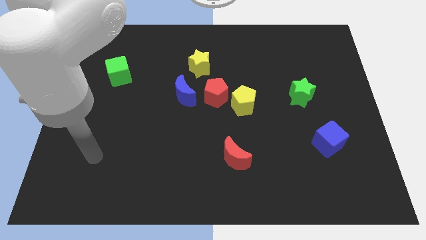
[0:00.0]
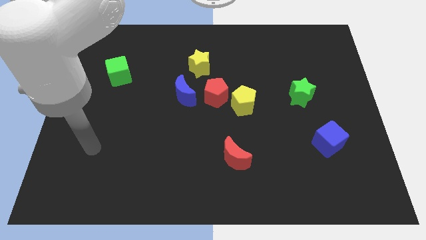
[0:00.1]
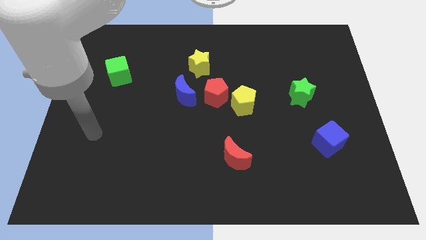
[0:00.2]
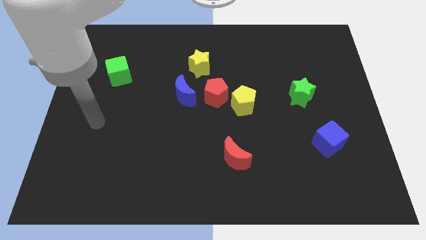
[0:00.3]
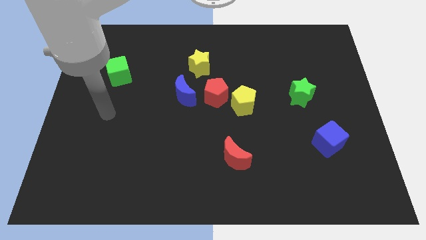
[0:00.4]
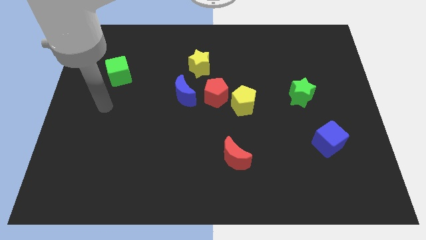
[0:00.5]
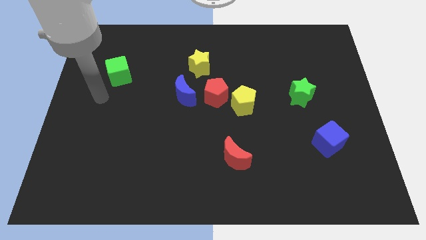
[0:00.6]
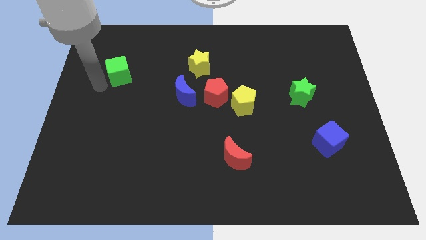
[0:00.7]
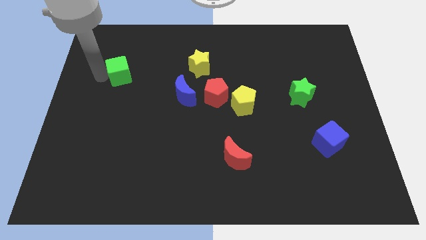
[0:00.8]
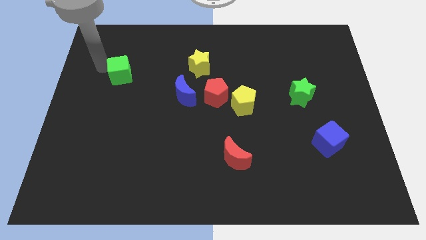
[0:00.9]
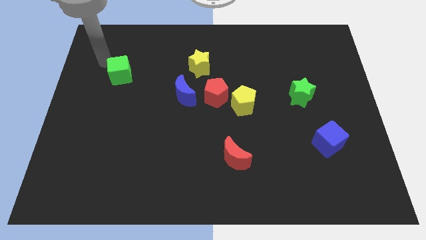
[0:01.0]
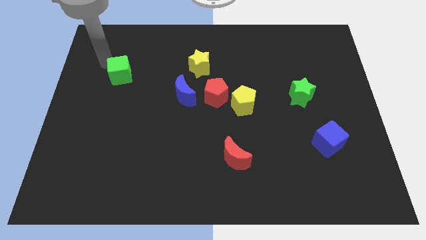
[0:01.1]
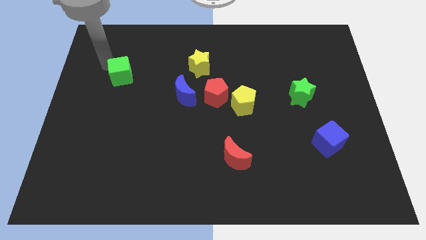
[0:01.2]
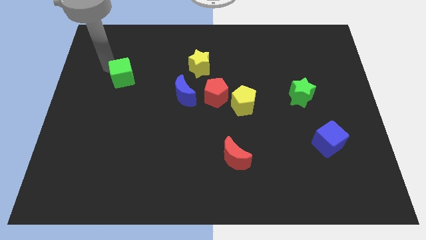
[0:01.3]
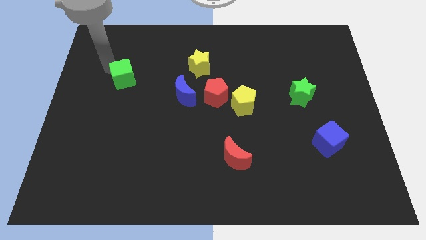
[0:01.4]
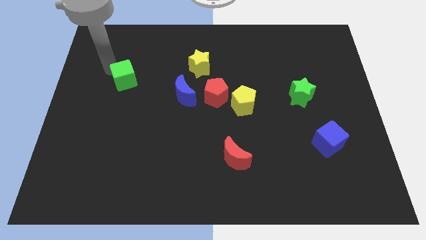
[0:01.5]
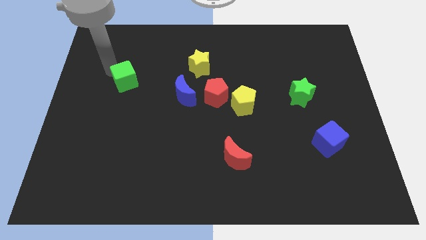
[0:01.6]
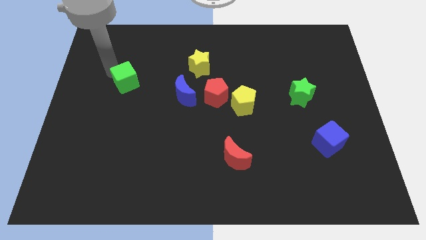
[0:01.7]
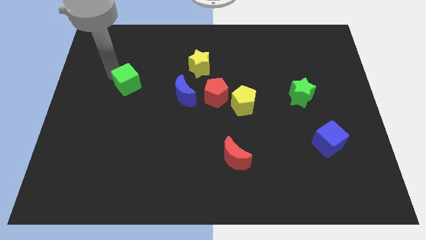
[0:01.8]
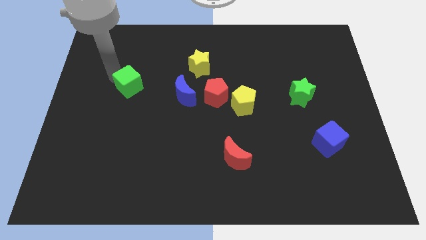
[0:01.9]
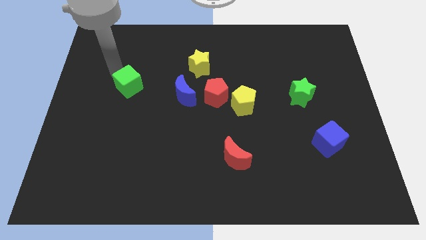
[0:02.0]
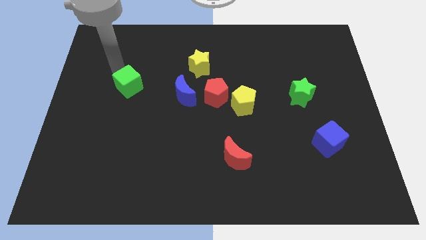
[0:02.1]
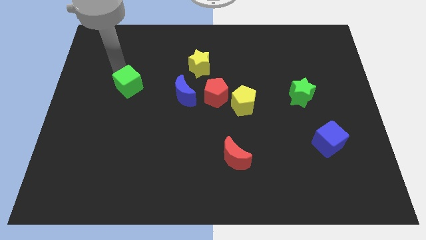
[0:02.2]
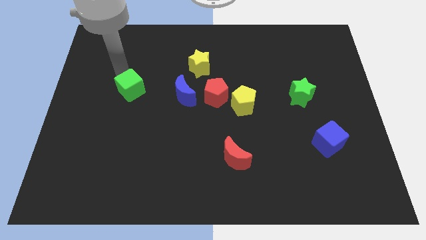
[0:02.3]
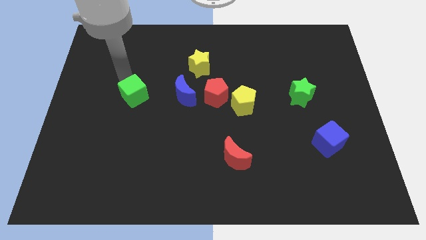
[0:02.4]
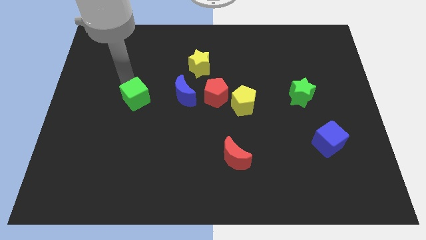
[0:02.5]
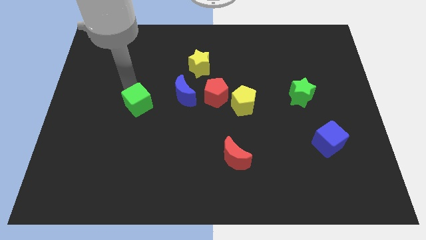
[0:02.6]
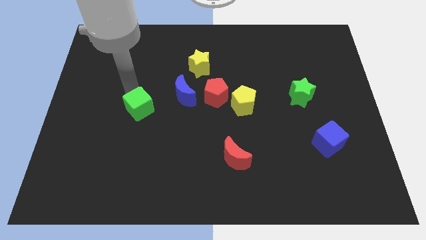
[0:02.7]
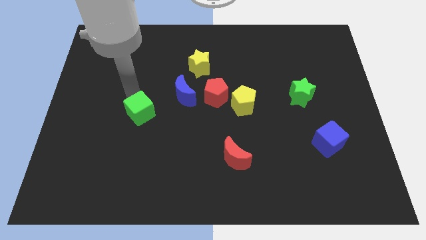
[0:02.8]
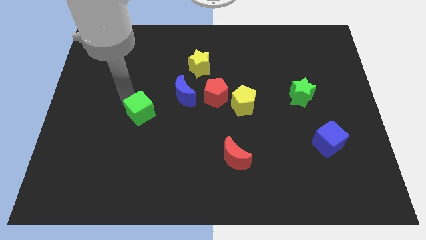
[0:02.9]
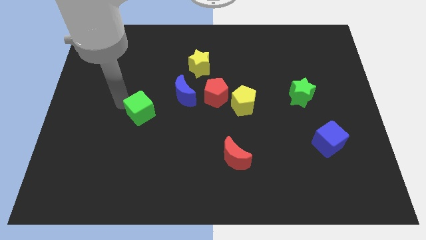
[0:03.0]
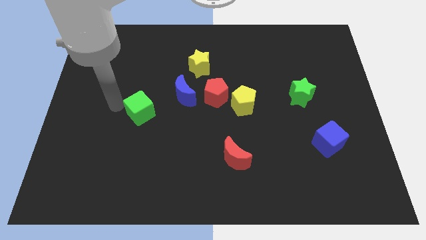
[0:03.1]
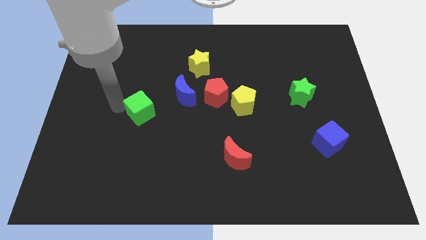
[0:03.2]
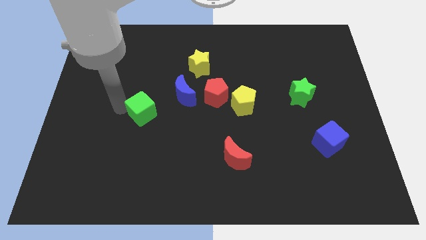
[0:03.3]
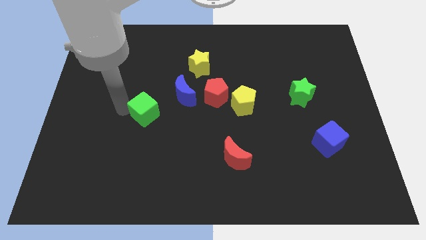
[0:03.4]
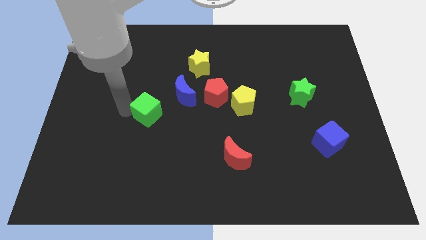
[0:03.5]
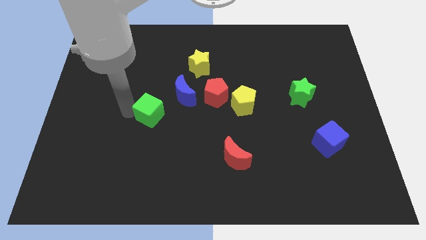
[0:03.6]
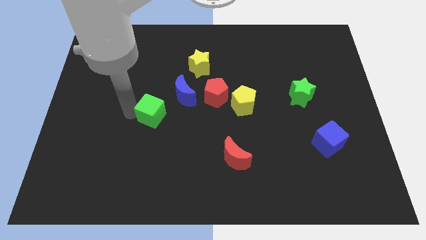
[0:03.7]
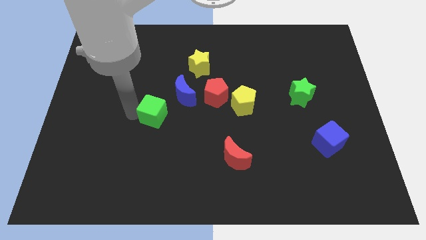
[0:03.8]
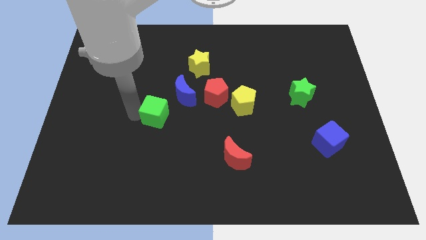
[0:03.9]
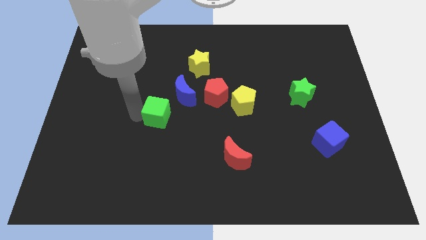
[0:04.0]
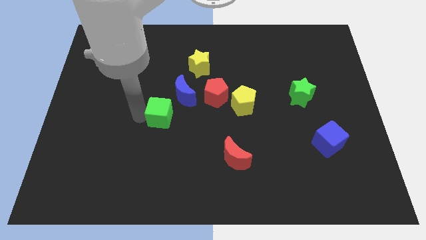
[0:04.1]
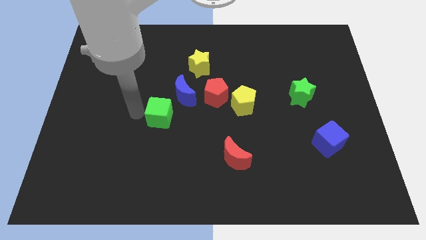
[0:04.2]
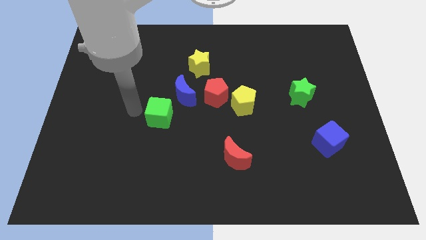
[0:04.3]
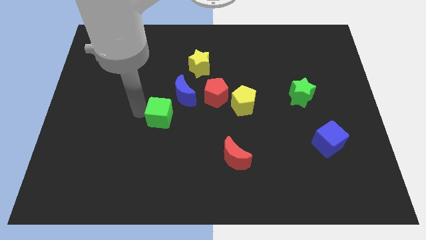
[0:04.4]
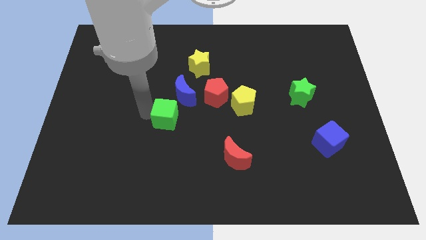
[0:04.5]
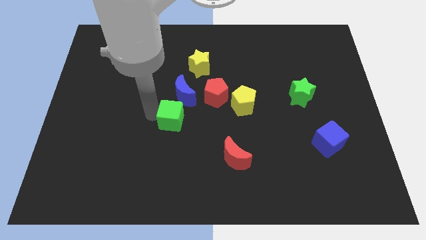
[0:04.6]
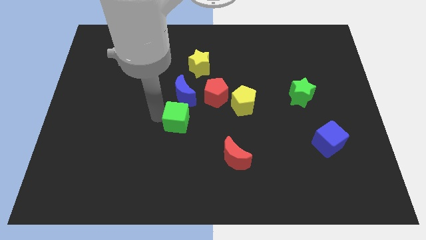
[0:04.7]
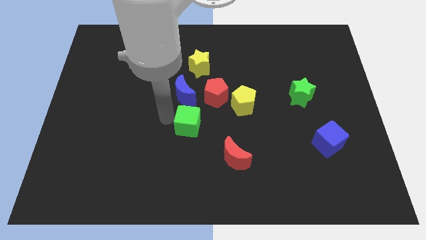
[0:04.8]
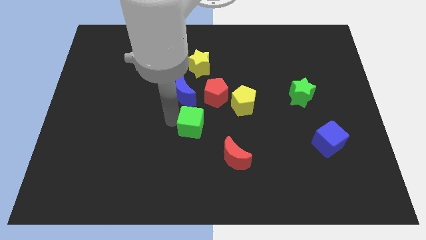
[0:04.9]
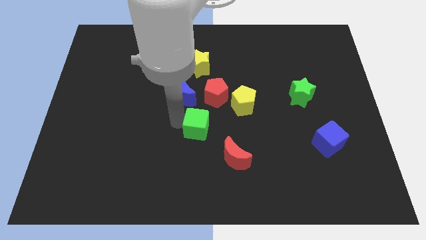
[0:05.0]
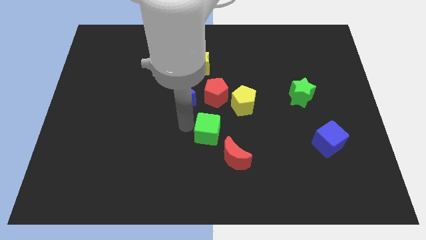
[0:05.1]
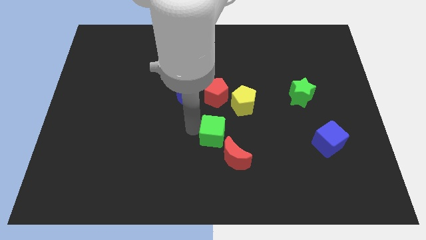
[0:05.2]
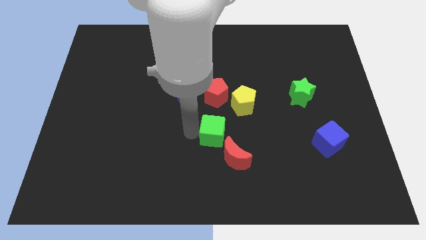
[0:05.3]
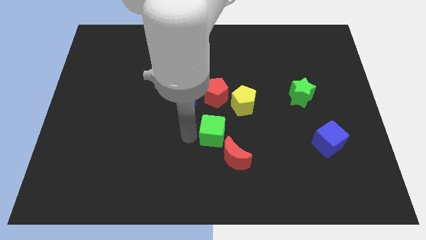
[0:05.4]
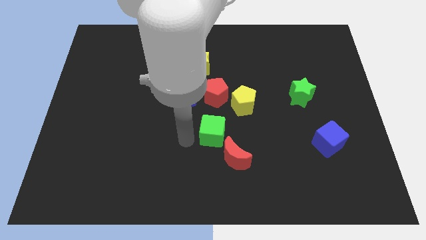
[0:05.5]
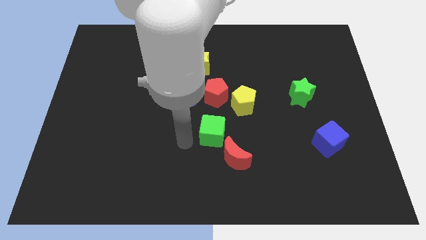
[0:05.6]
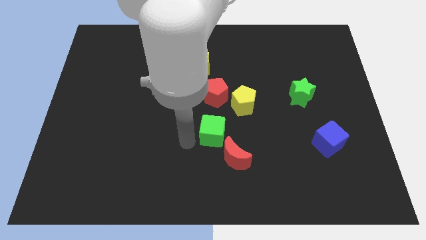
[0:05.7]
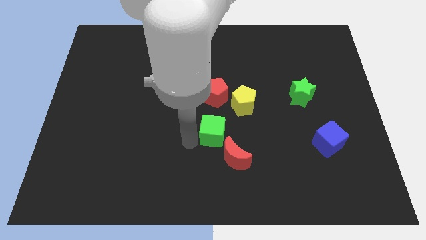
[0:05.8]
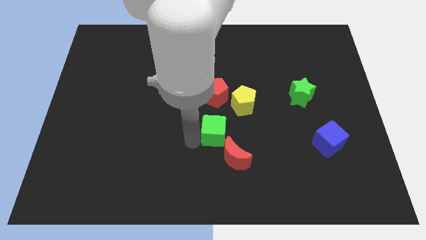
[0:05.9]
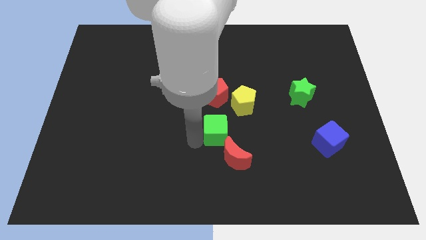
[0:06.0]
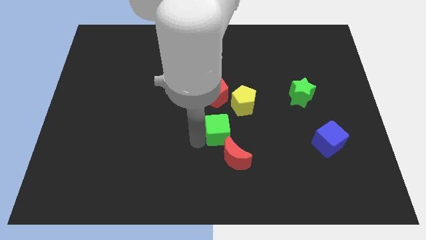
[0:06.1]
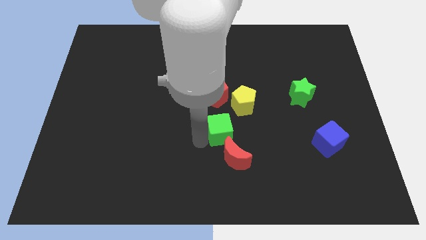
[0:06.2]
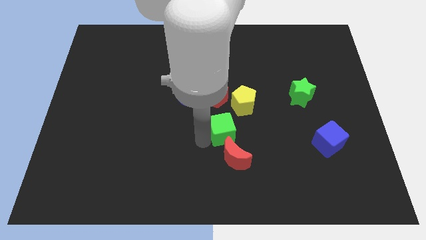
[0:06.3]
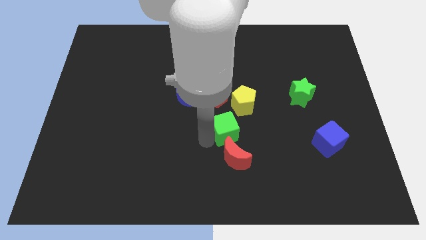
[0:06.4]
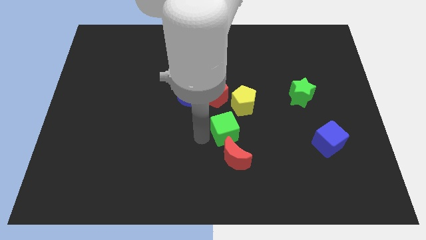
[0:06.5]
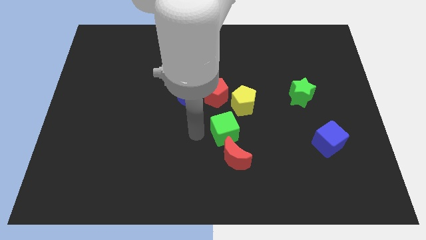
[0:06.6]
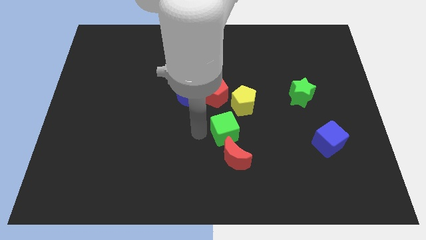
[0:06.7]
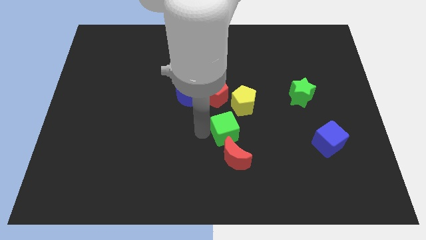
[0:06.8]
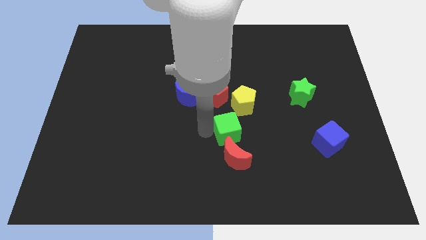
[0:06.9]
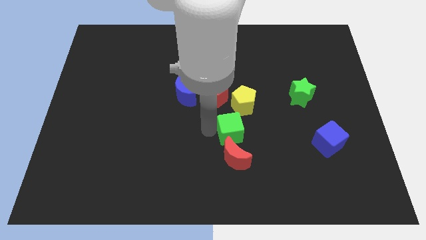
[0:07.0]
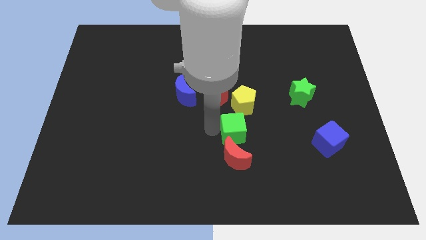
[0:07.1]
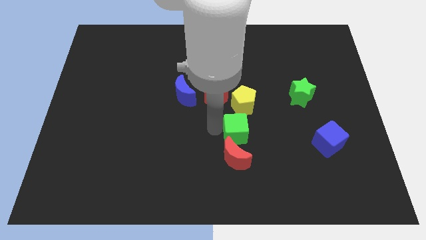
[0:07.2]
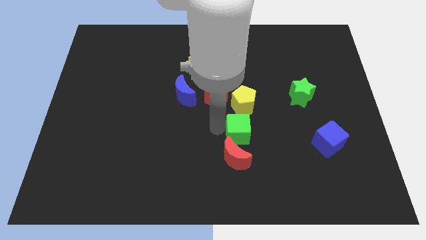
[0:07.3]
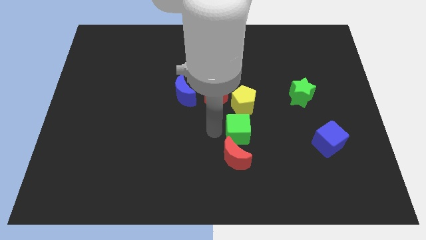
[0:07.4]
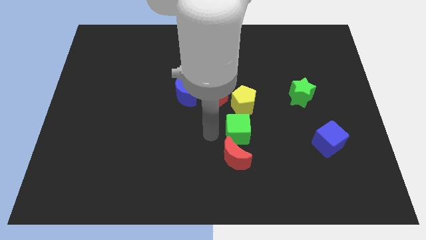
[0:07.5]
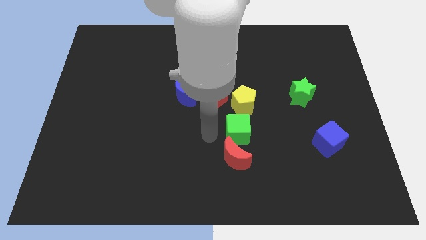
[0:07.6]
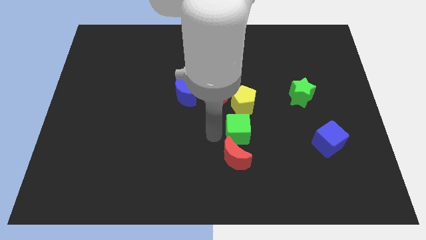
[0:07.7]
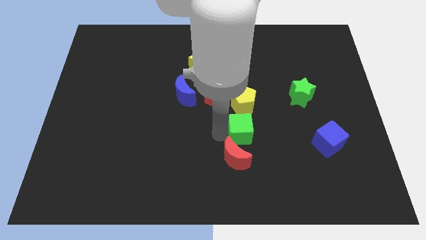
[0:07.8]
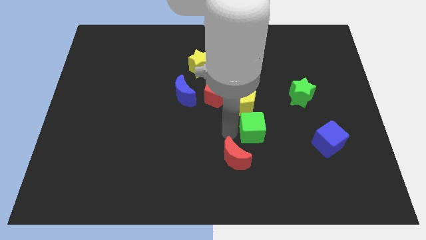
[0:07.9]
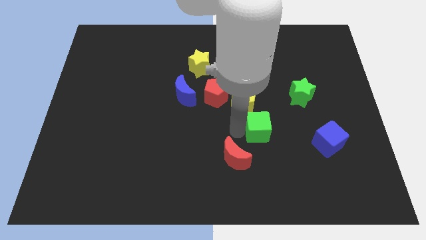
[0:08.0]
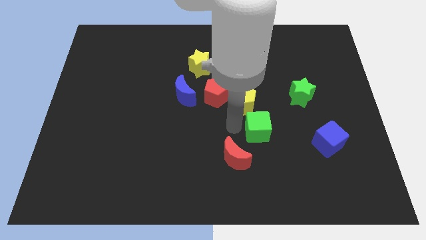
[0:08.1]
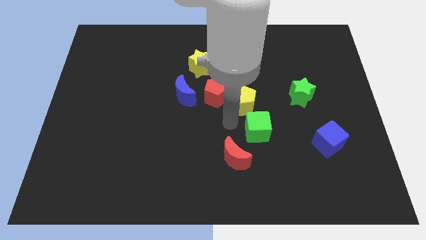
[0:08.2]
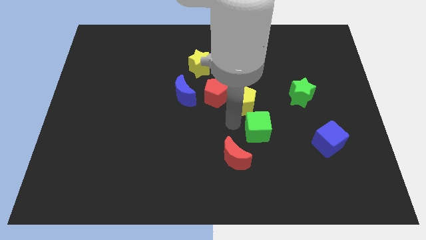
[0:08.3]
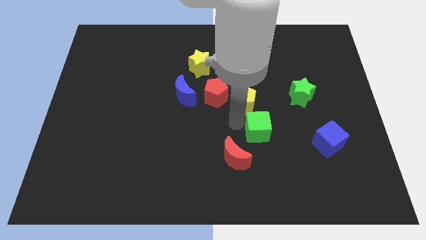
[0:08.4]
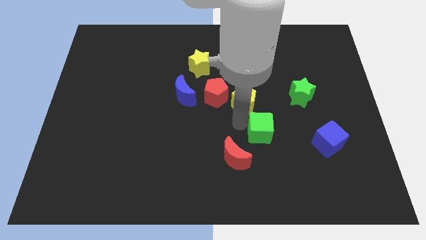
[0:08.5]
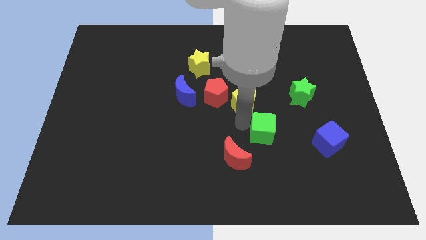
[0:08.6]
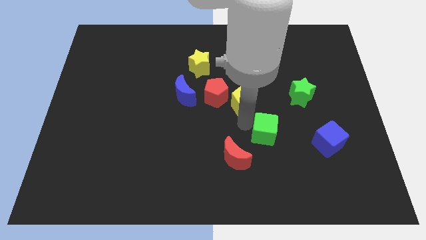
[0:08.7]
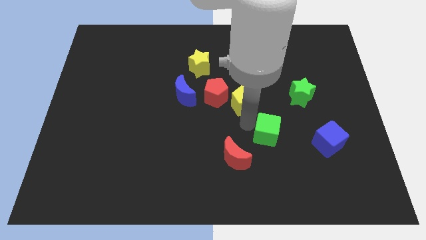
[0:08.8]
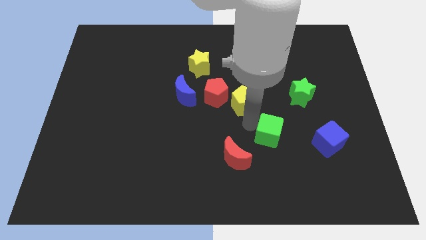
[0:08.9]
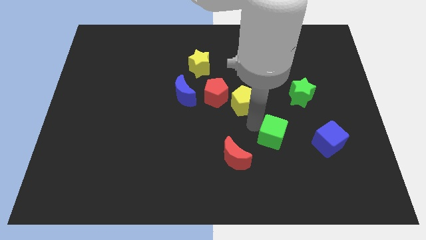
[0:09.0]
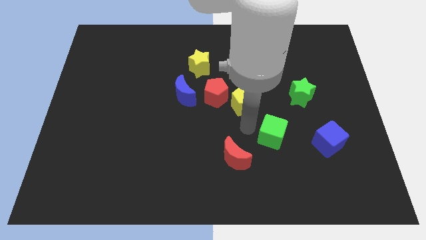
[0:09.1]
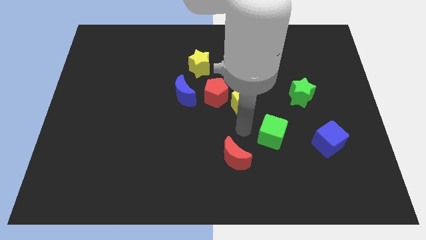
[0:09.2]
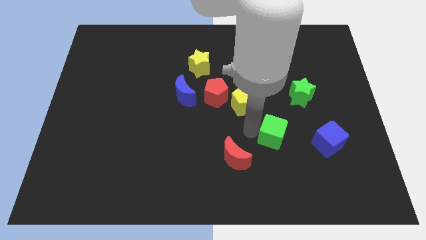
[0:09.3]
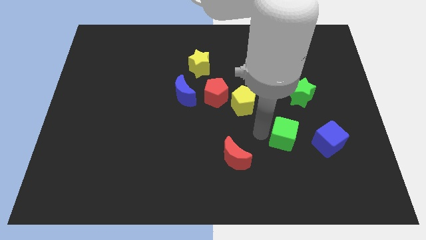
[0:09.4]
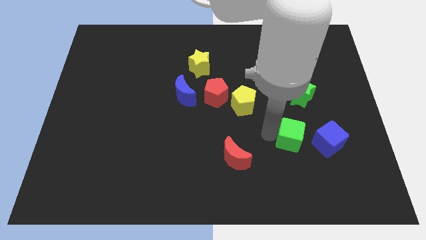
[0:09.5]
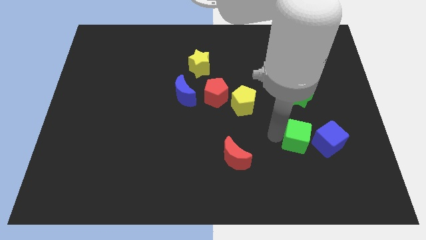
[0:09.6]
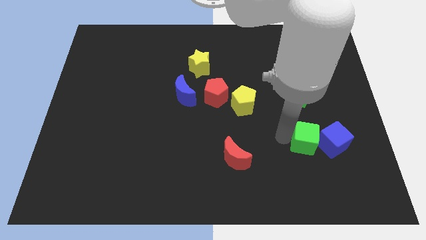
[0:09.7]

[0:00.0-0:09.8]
move the green cube to the blue cube
